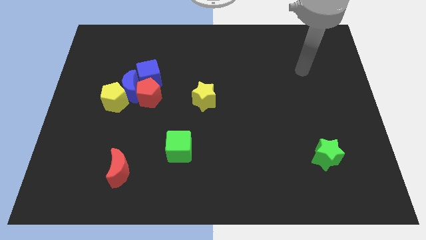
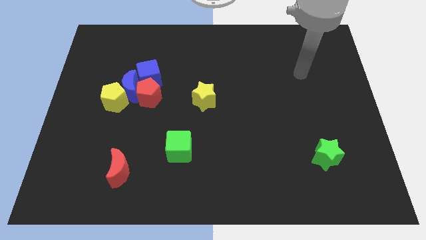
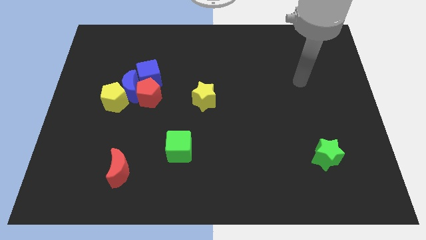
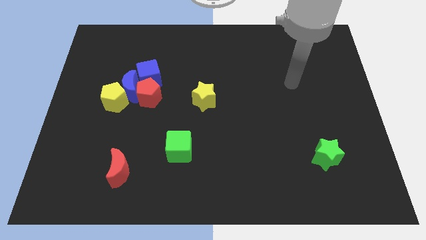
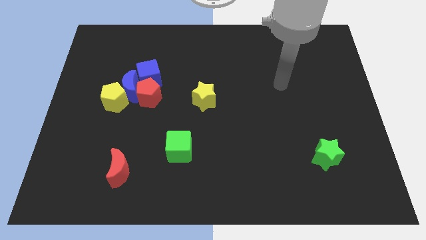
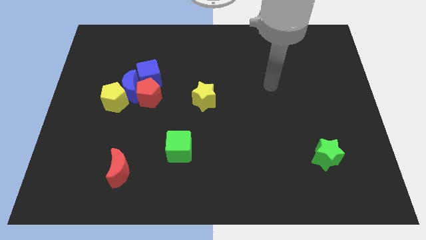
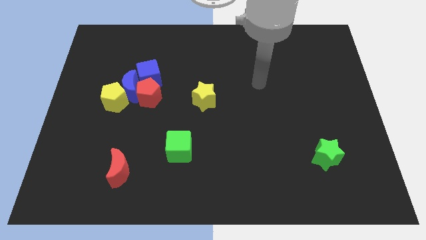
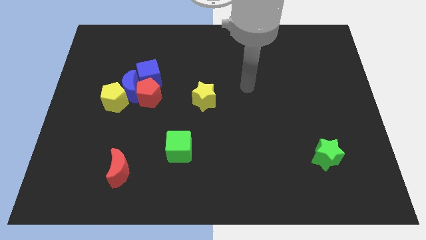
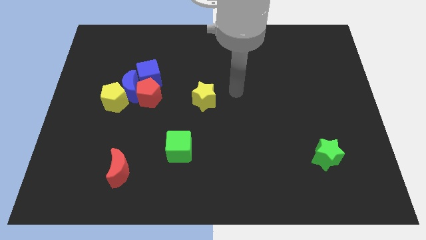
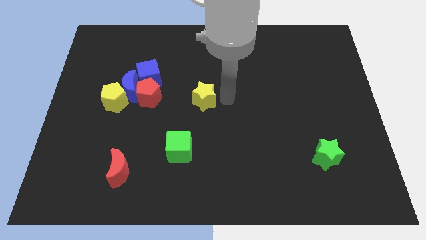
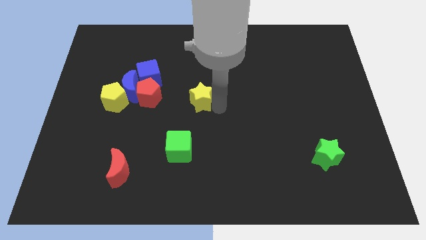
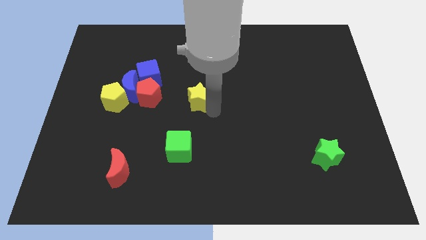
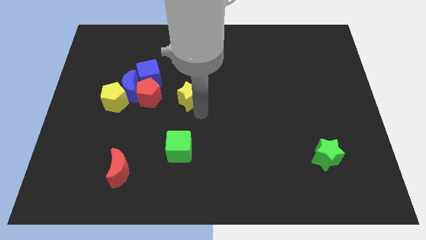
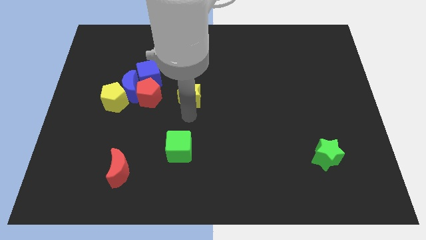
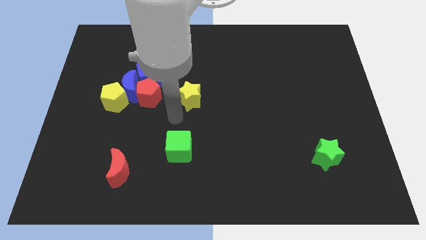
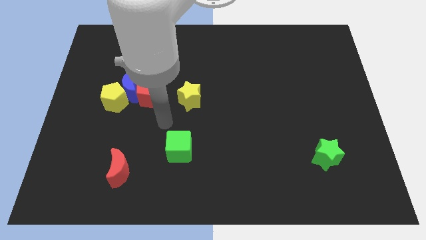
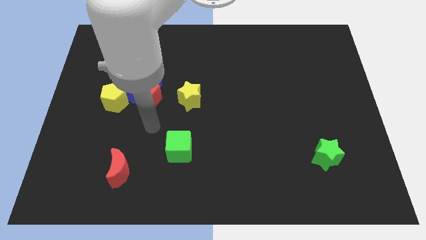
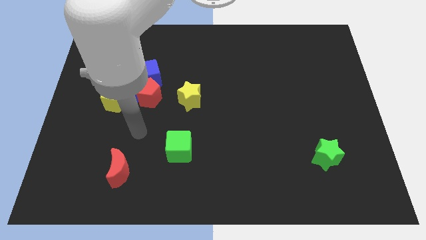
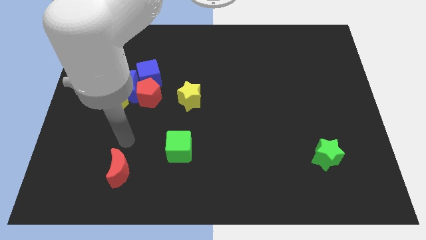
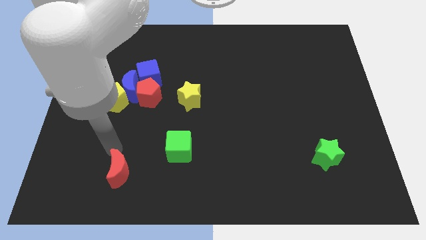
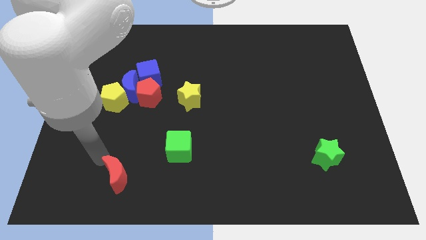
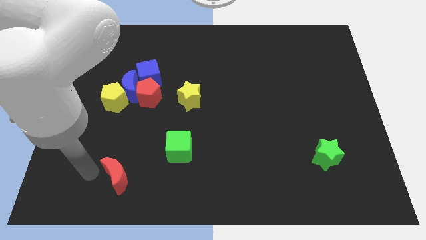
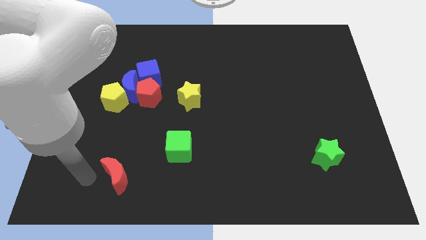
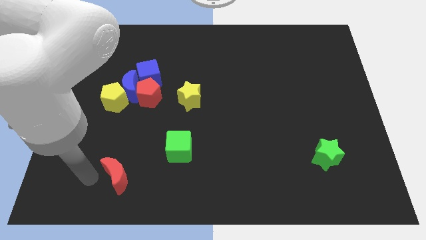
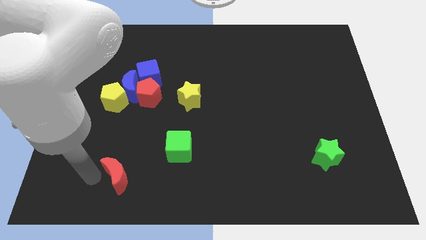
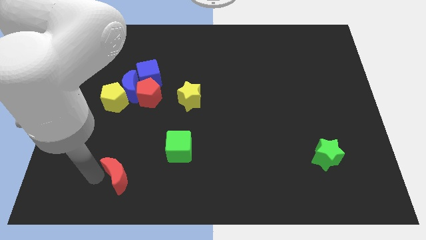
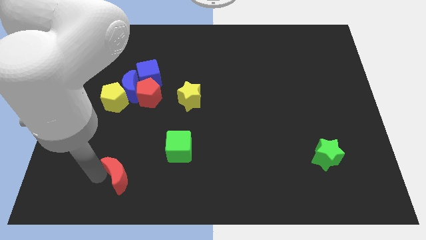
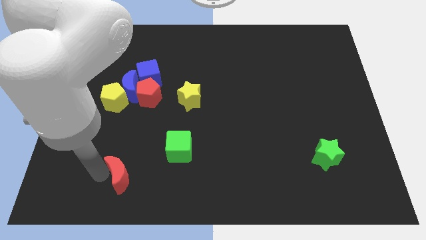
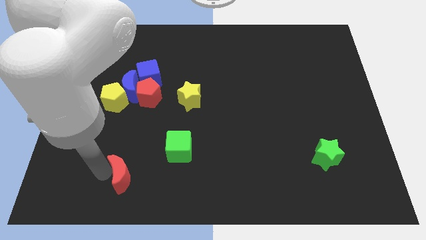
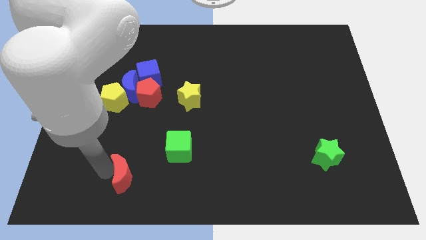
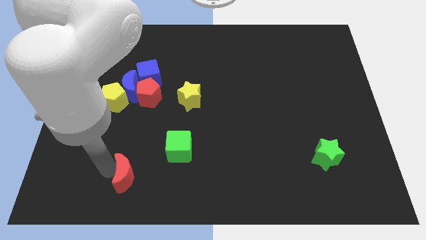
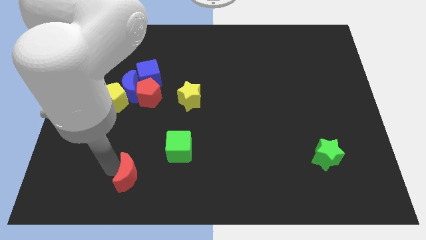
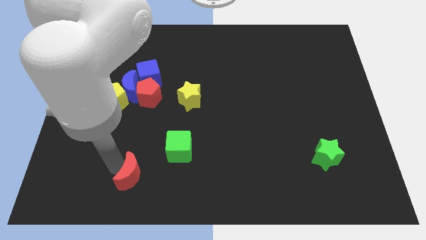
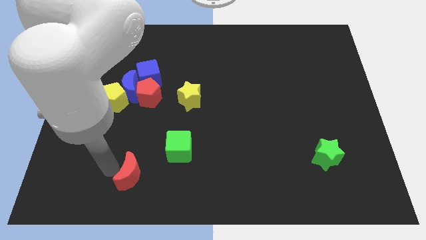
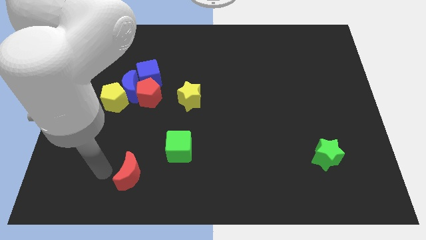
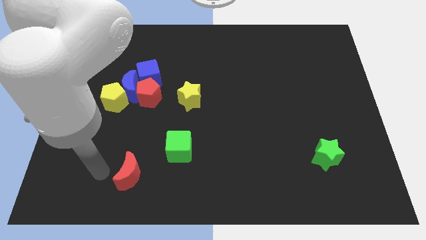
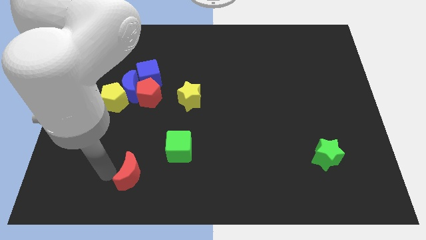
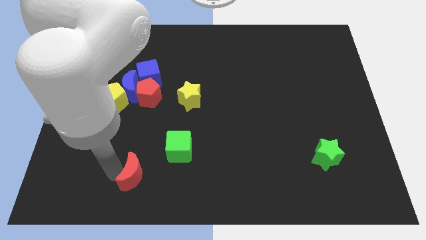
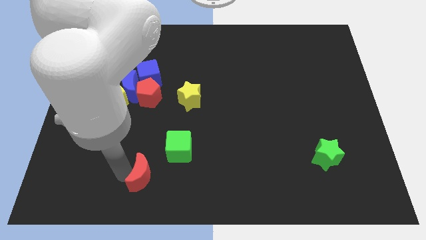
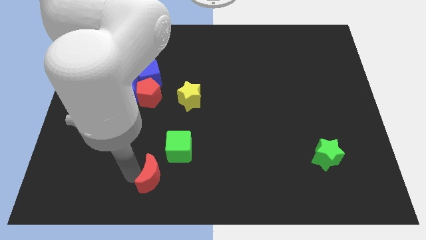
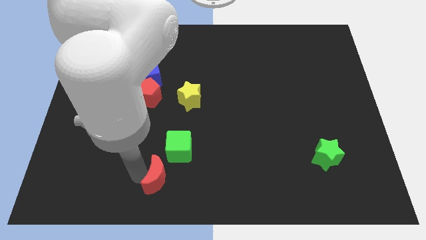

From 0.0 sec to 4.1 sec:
move the red moon right slightly

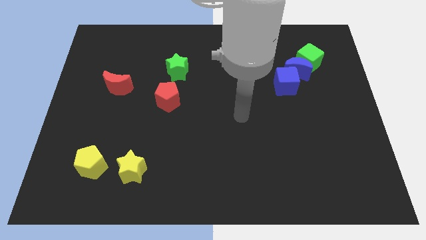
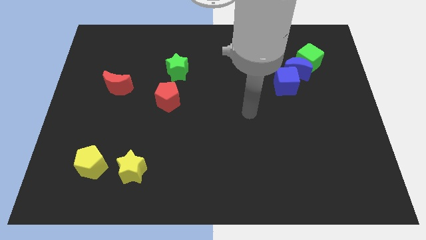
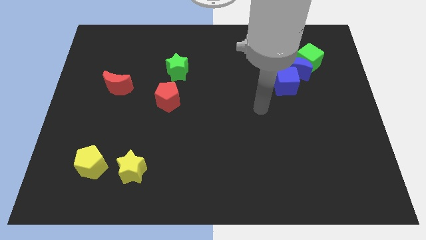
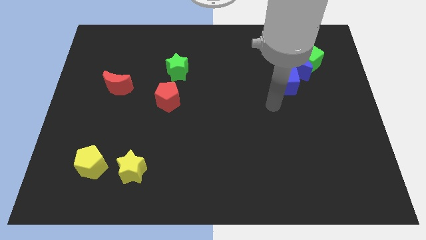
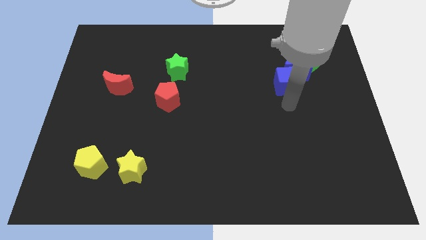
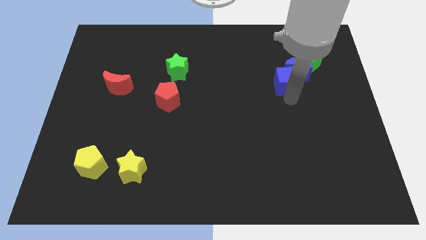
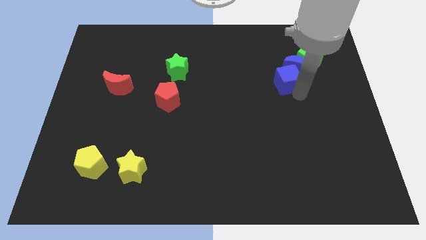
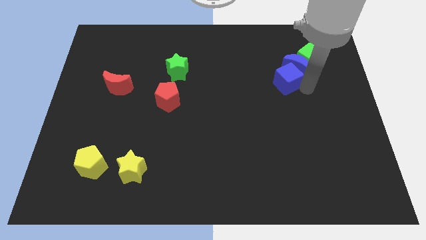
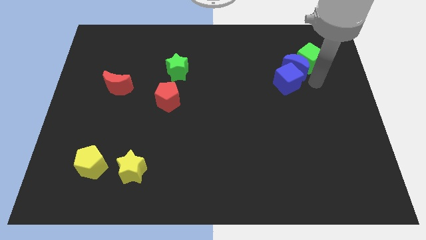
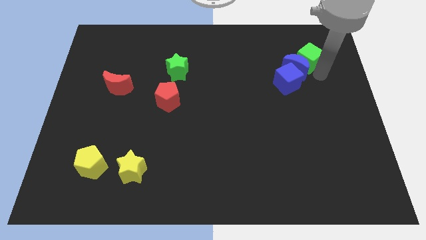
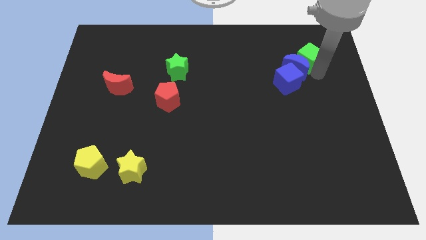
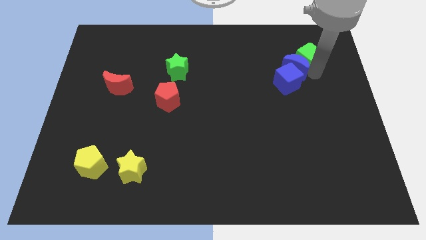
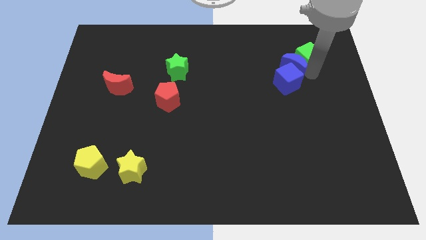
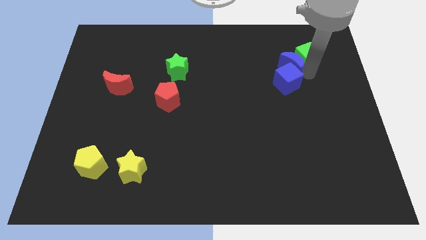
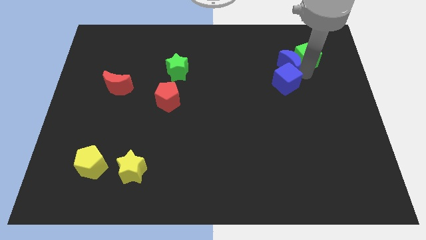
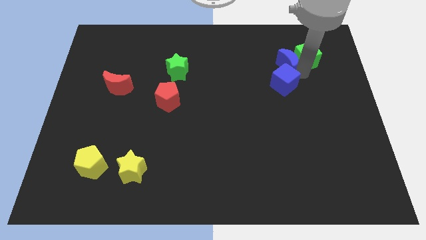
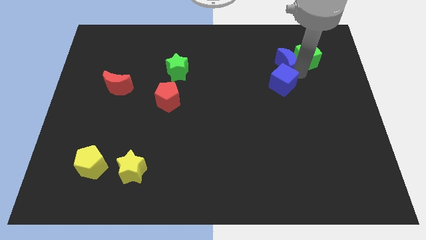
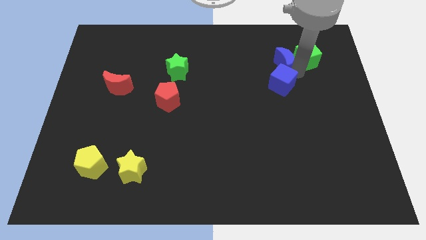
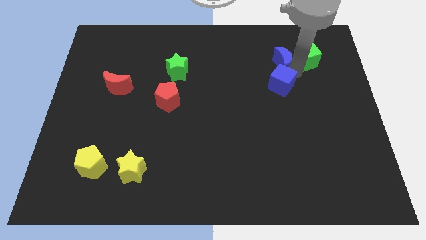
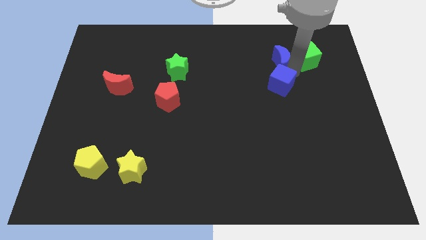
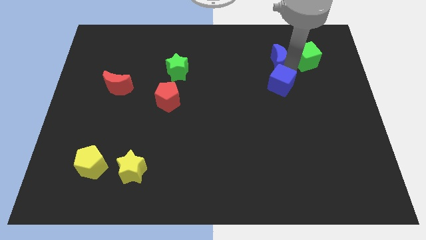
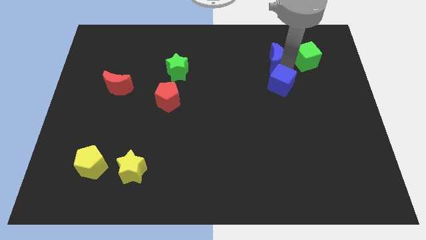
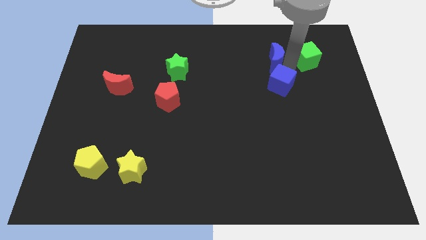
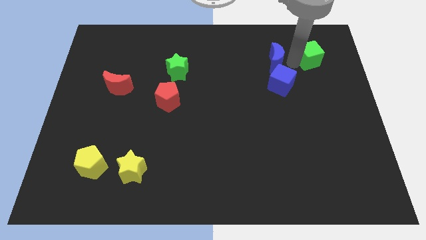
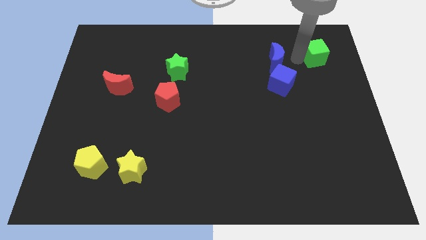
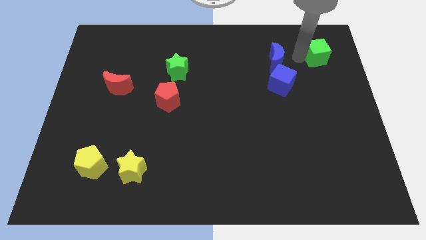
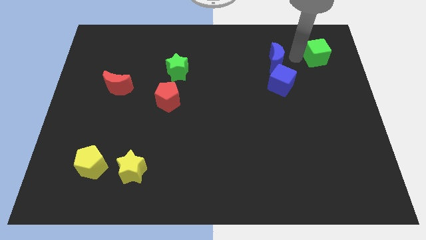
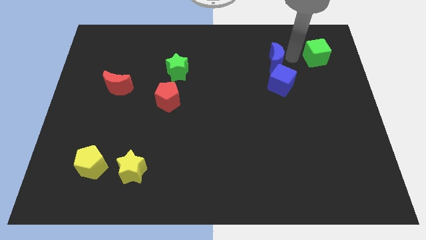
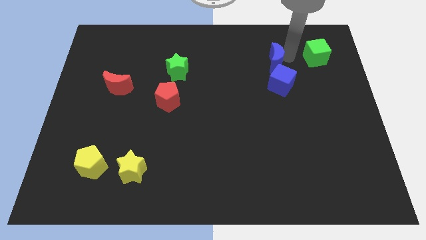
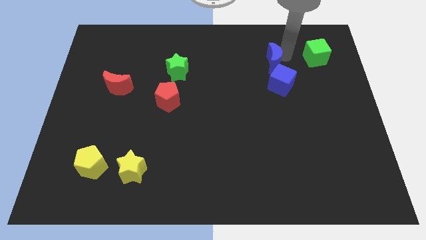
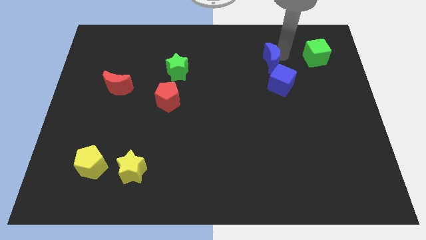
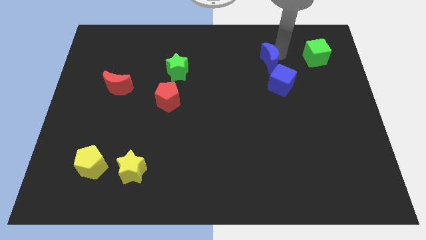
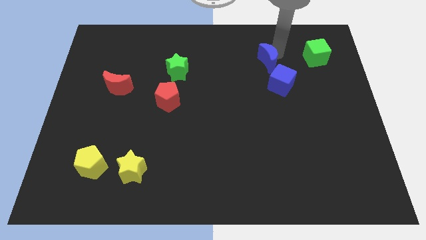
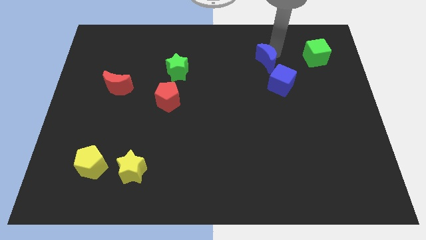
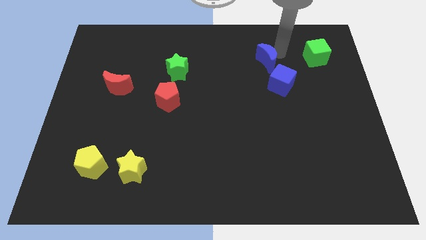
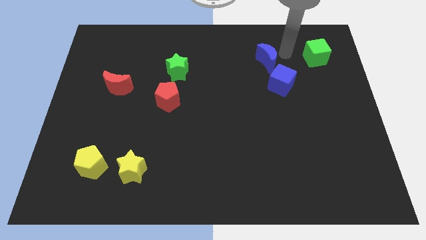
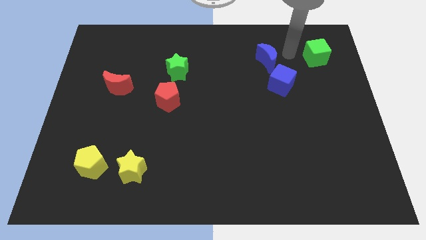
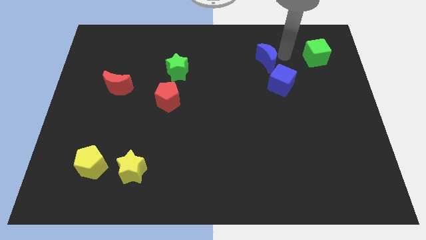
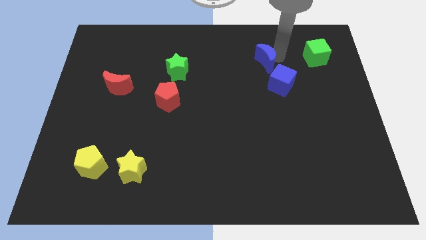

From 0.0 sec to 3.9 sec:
slightly move the blue moon left
